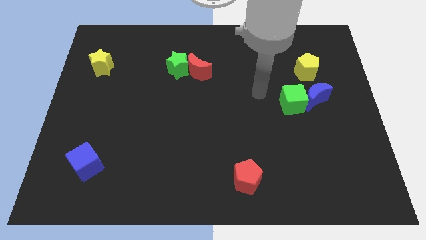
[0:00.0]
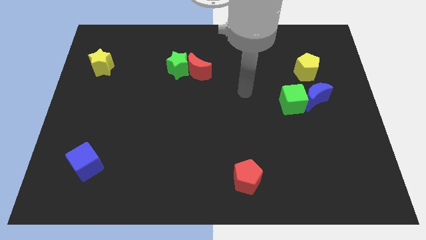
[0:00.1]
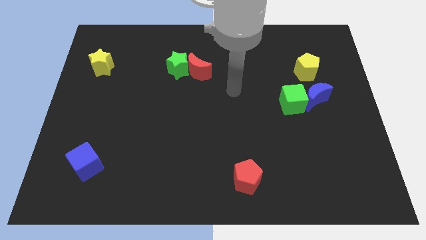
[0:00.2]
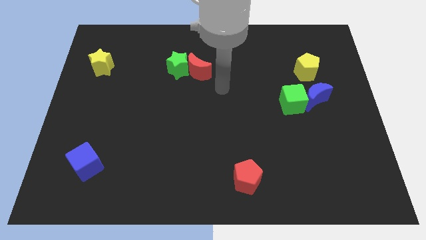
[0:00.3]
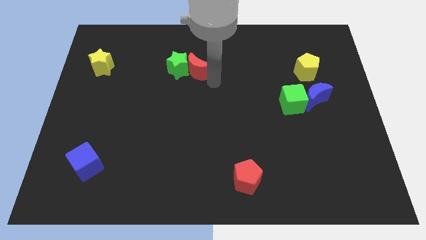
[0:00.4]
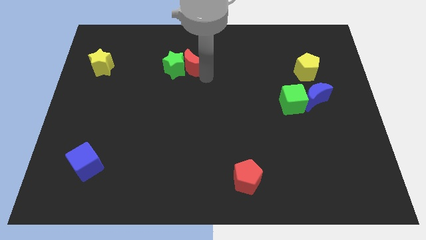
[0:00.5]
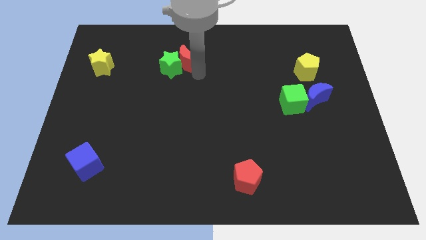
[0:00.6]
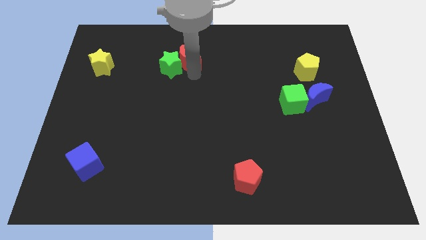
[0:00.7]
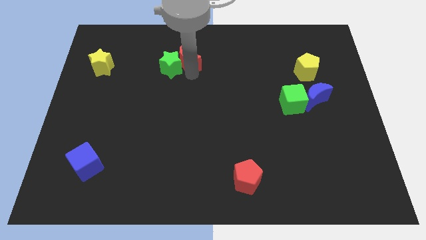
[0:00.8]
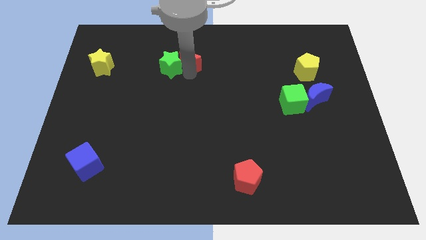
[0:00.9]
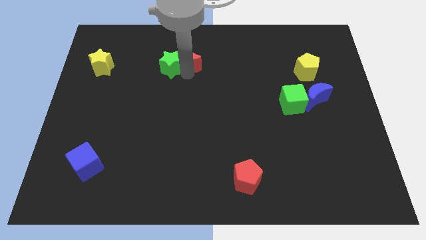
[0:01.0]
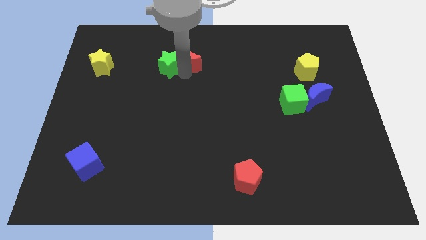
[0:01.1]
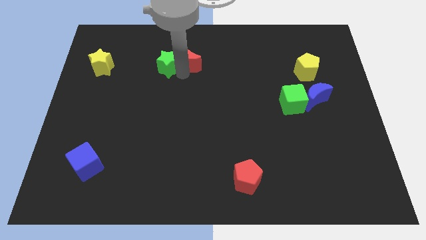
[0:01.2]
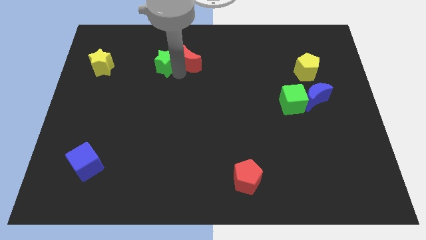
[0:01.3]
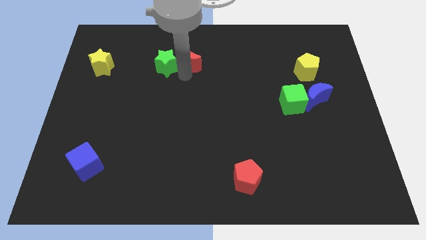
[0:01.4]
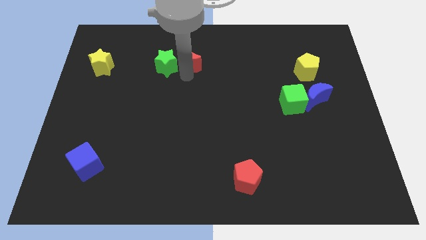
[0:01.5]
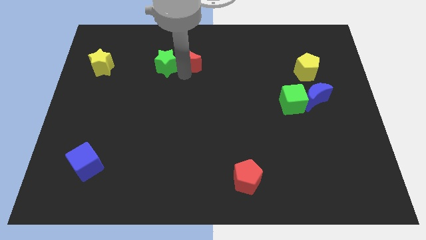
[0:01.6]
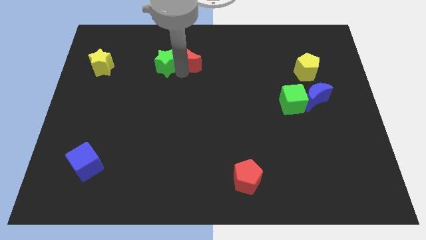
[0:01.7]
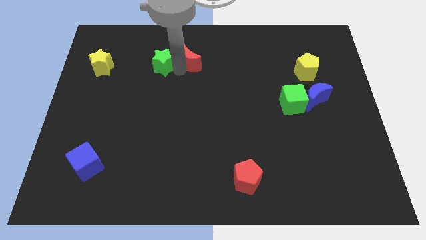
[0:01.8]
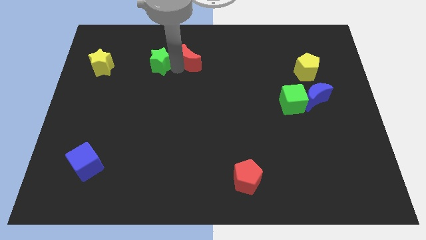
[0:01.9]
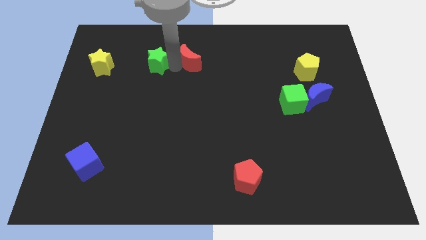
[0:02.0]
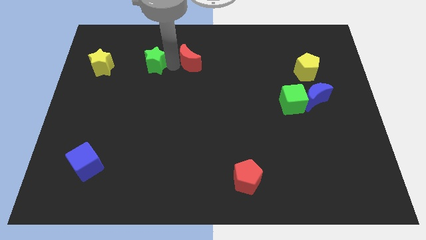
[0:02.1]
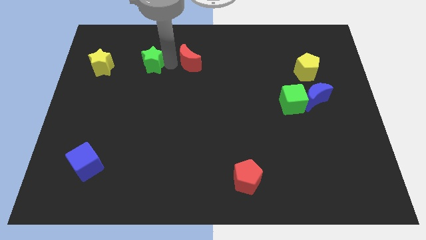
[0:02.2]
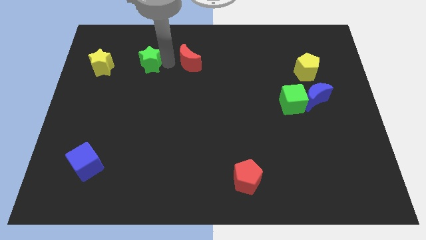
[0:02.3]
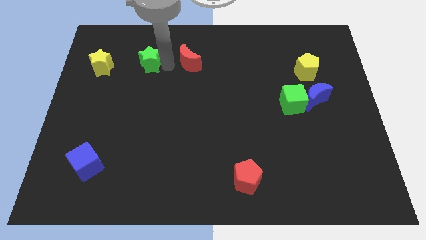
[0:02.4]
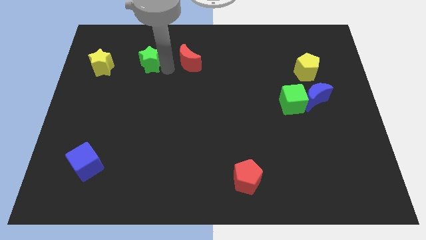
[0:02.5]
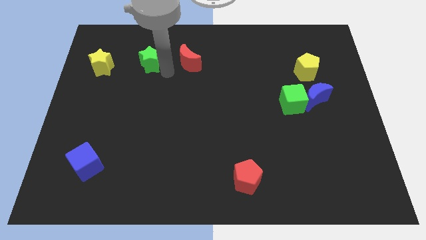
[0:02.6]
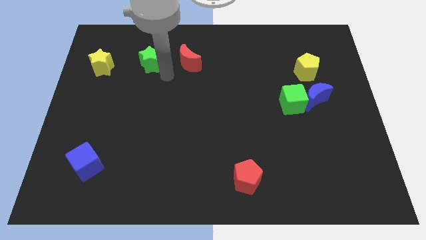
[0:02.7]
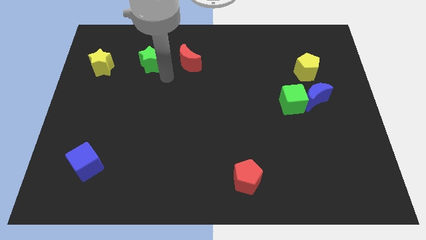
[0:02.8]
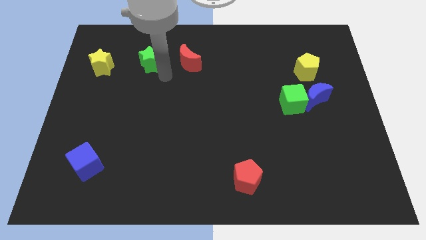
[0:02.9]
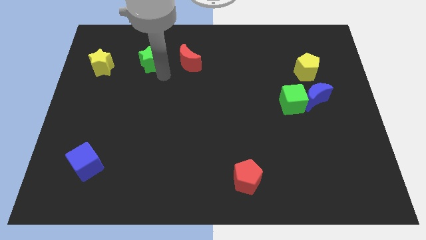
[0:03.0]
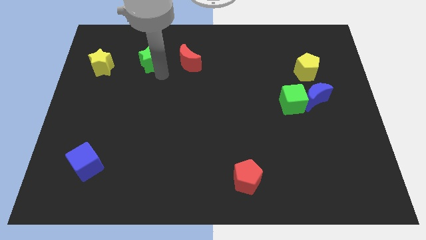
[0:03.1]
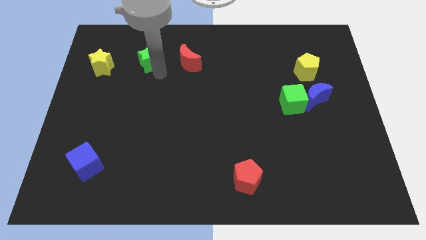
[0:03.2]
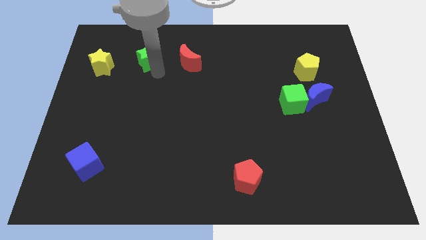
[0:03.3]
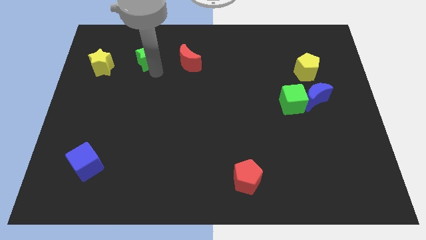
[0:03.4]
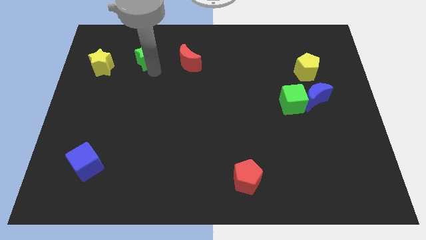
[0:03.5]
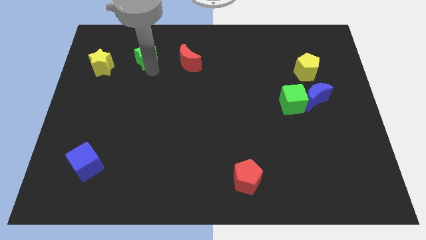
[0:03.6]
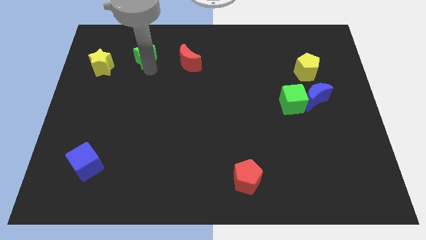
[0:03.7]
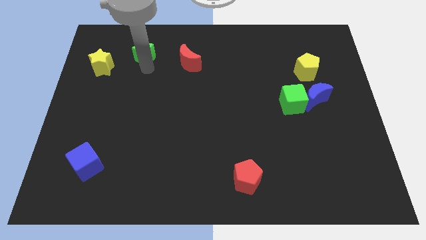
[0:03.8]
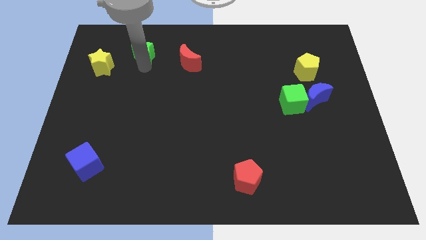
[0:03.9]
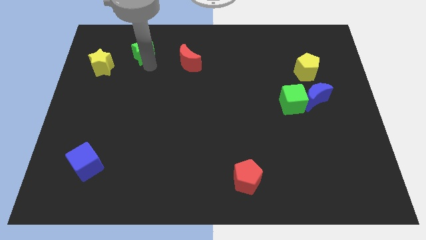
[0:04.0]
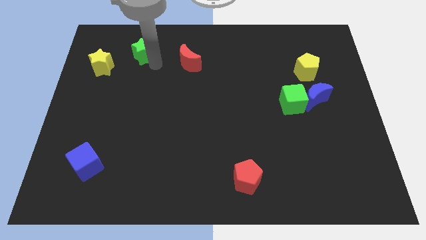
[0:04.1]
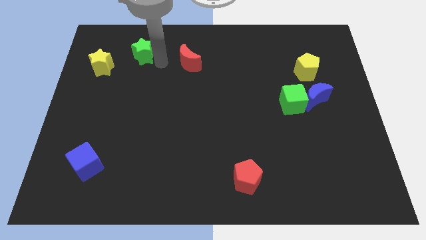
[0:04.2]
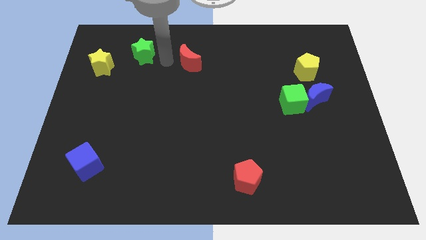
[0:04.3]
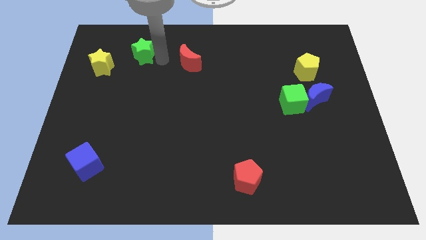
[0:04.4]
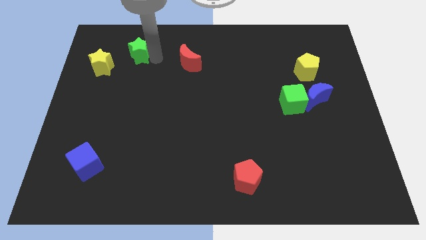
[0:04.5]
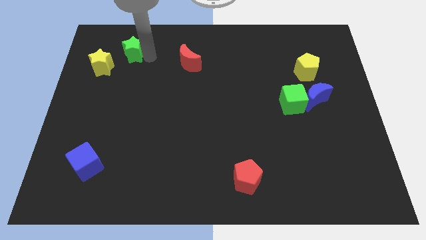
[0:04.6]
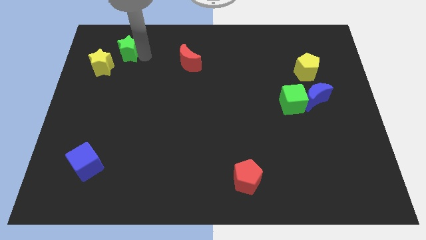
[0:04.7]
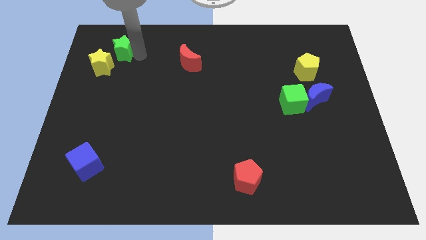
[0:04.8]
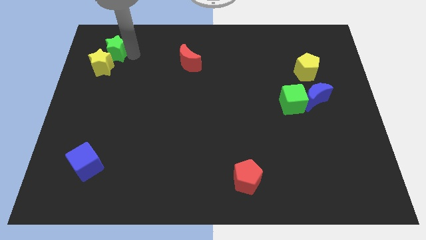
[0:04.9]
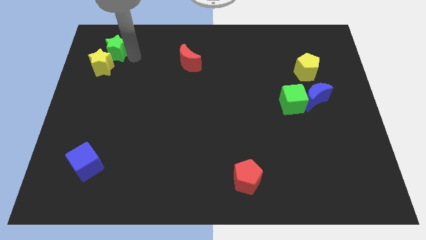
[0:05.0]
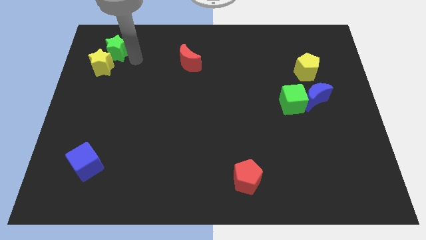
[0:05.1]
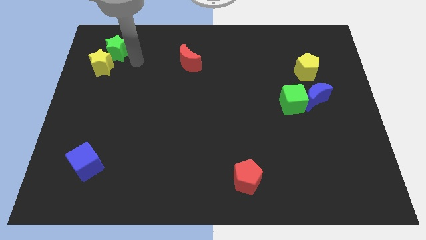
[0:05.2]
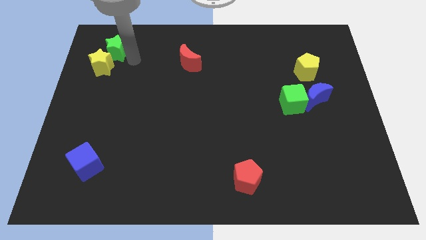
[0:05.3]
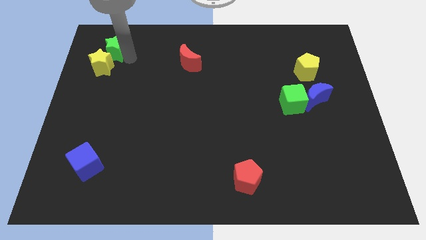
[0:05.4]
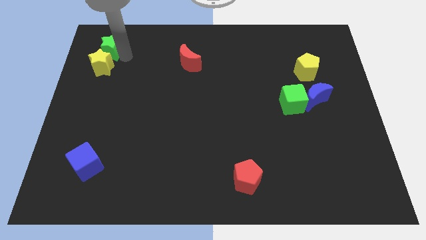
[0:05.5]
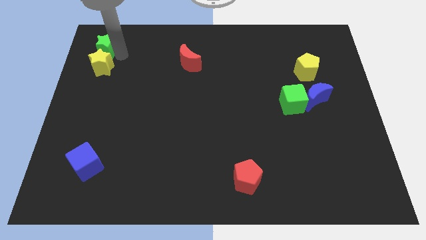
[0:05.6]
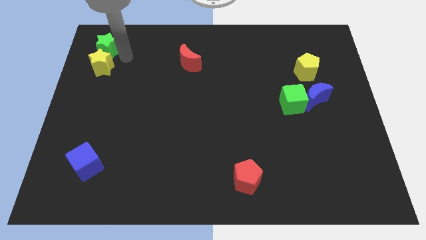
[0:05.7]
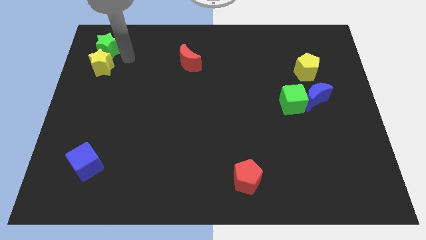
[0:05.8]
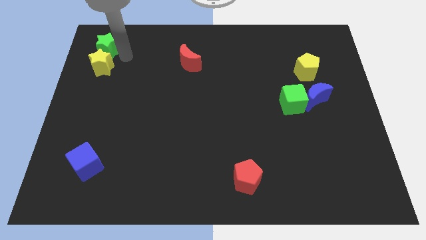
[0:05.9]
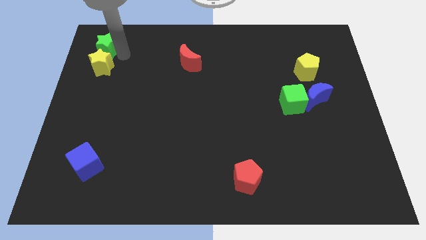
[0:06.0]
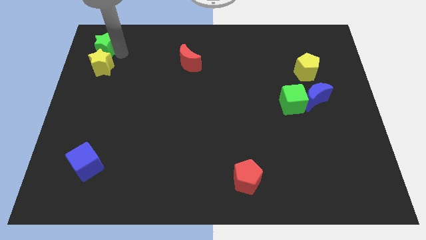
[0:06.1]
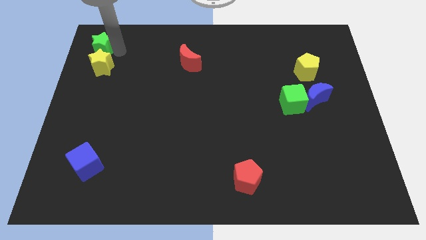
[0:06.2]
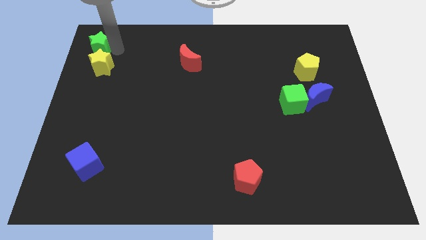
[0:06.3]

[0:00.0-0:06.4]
move the green star to the upper left corner

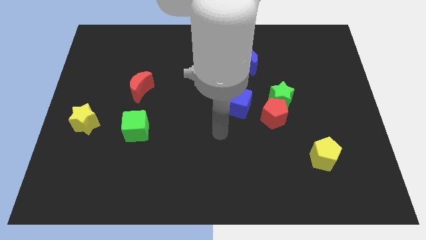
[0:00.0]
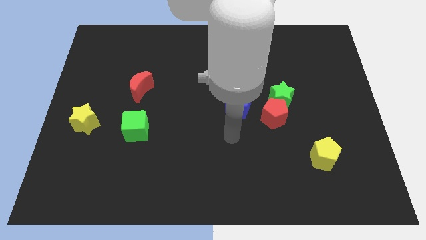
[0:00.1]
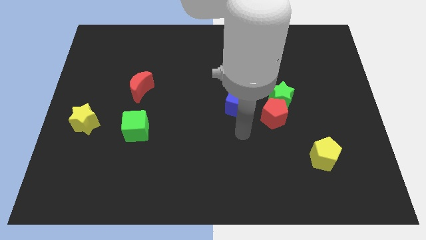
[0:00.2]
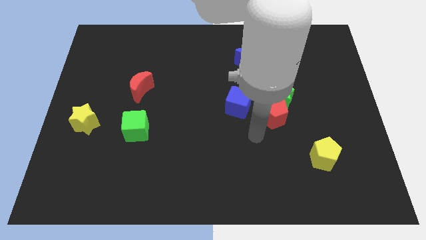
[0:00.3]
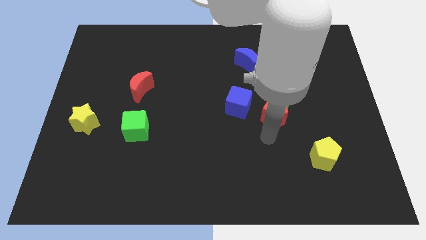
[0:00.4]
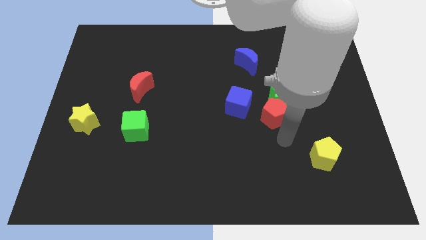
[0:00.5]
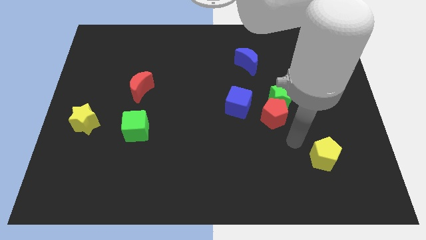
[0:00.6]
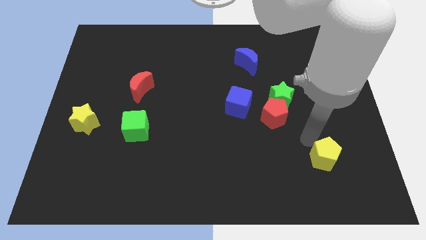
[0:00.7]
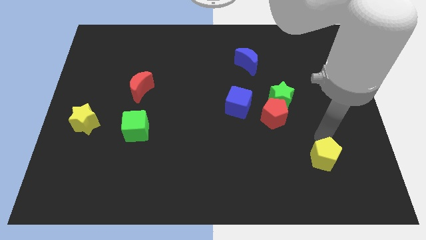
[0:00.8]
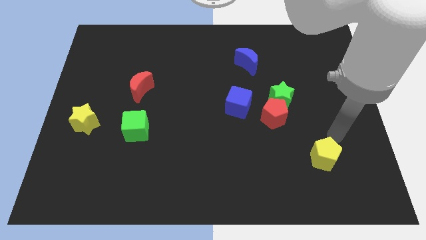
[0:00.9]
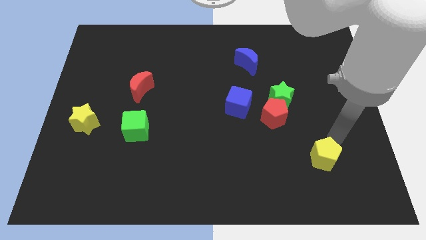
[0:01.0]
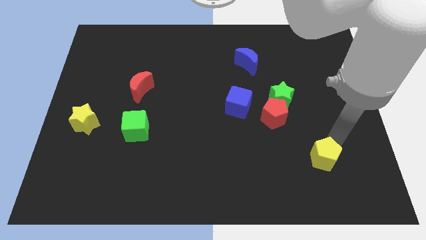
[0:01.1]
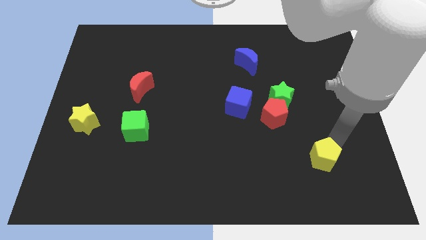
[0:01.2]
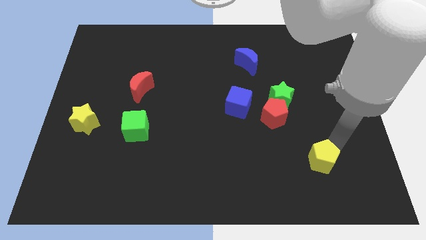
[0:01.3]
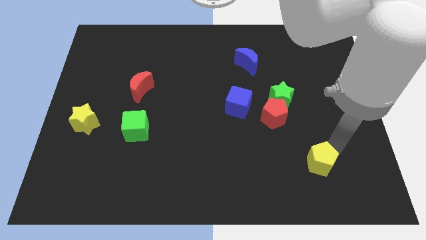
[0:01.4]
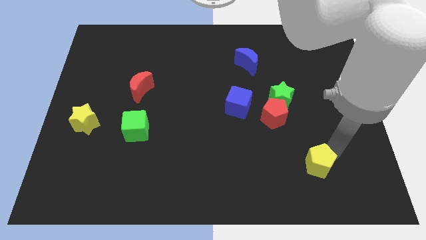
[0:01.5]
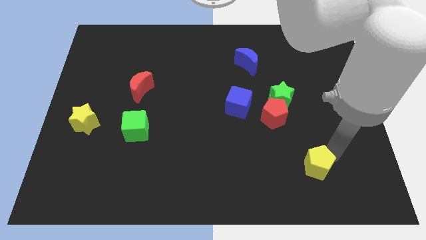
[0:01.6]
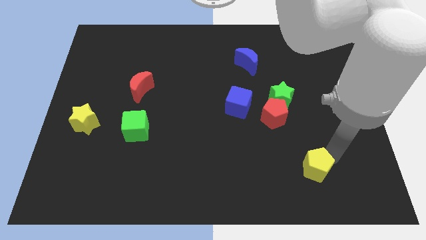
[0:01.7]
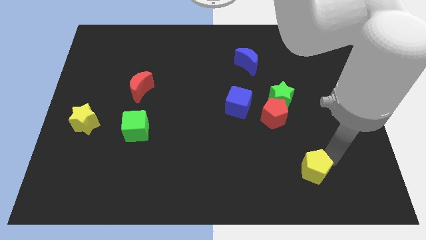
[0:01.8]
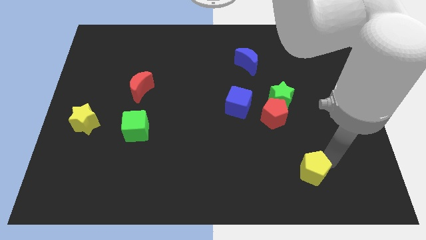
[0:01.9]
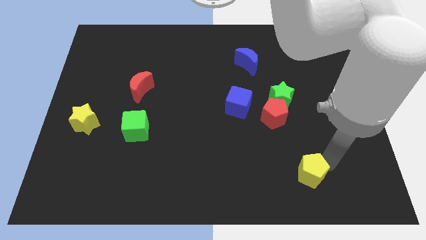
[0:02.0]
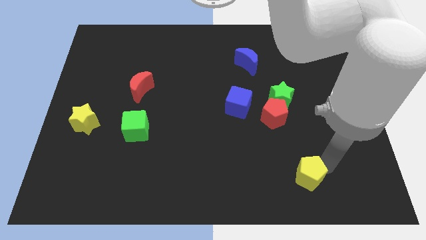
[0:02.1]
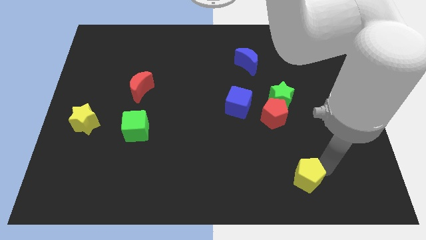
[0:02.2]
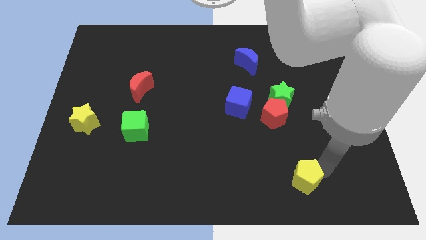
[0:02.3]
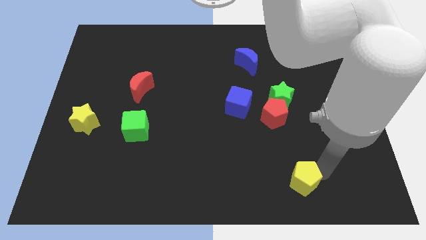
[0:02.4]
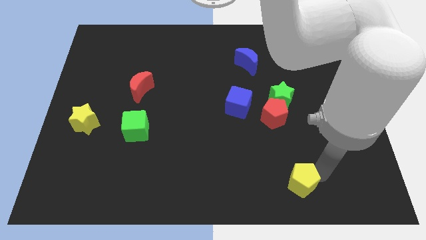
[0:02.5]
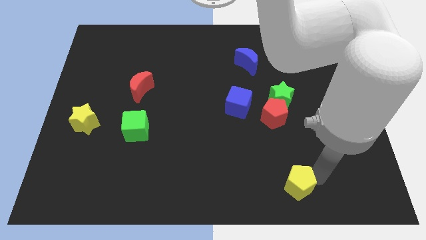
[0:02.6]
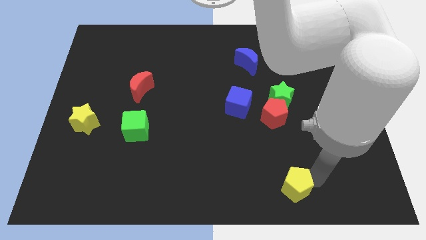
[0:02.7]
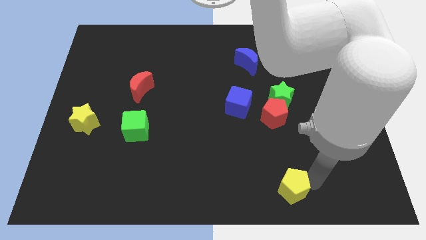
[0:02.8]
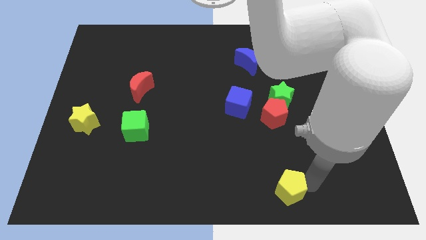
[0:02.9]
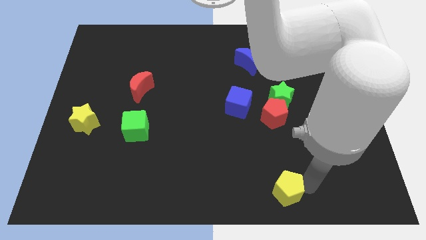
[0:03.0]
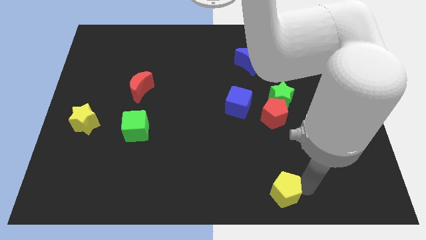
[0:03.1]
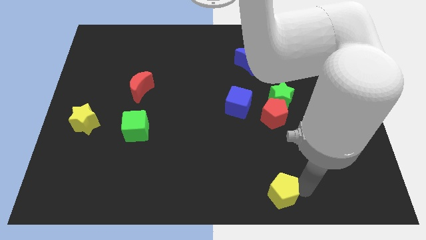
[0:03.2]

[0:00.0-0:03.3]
put the yellow pentagon to the bottom
